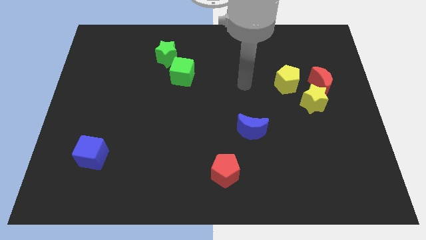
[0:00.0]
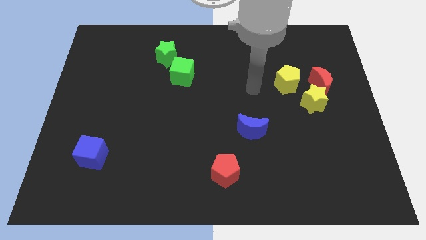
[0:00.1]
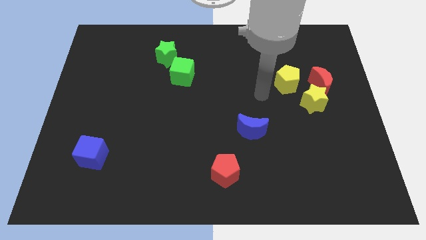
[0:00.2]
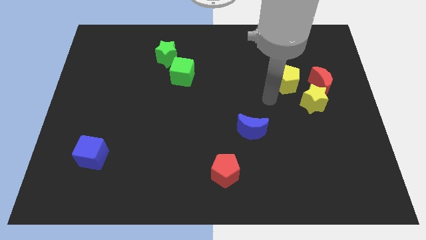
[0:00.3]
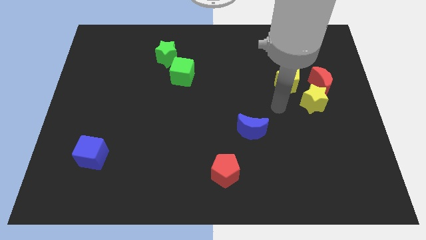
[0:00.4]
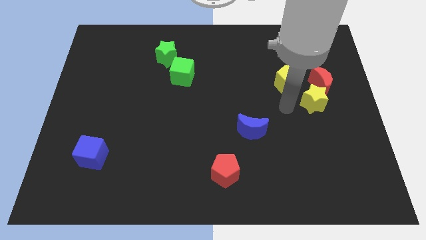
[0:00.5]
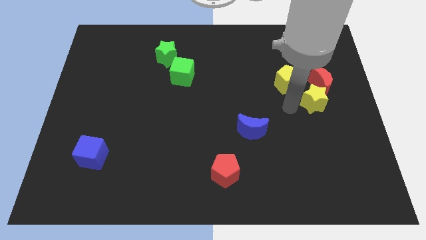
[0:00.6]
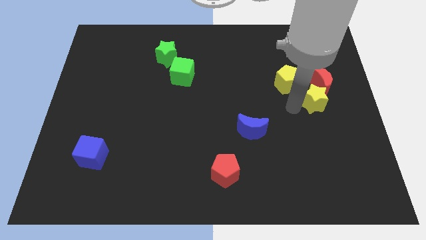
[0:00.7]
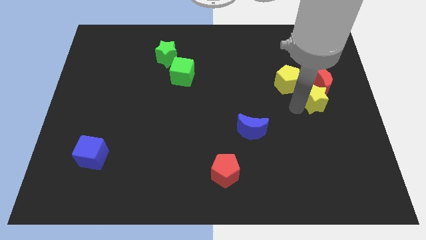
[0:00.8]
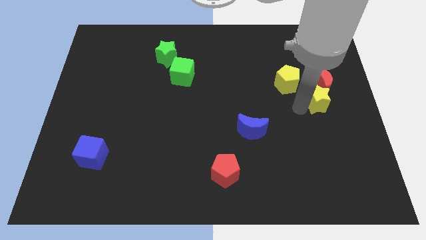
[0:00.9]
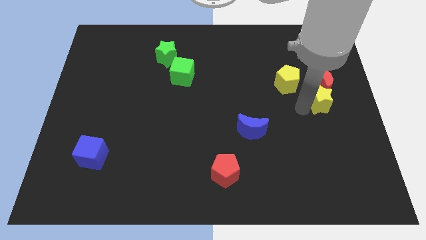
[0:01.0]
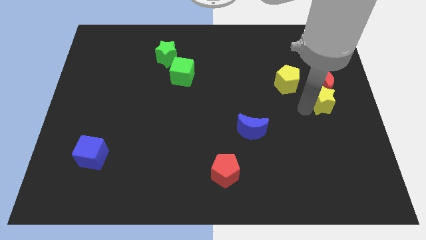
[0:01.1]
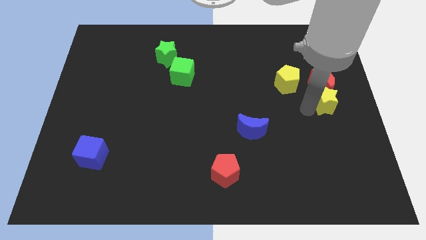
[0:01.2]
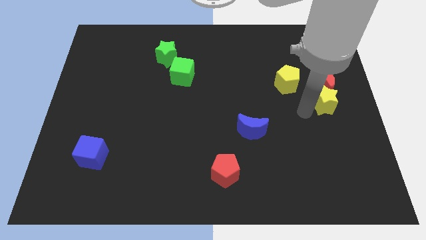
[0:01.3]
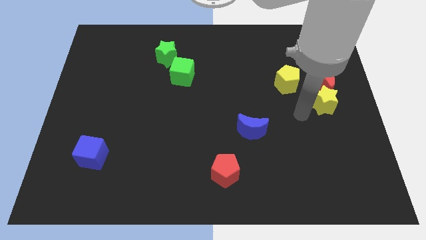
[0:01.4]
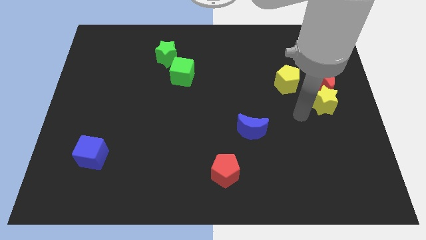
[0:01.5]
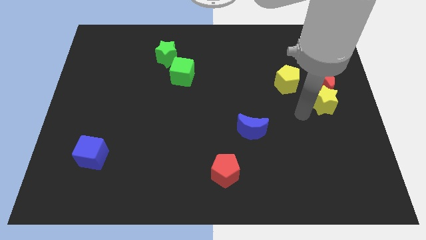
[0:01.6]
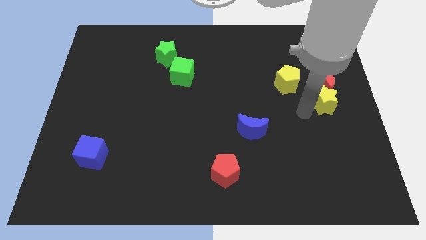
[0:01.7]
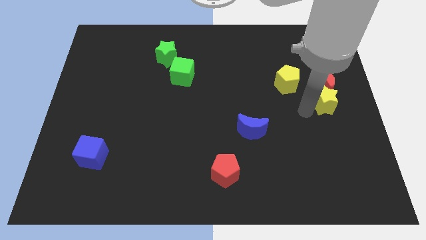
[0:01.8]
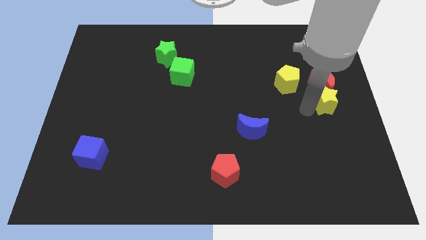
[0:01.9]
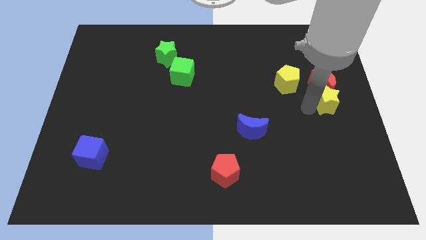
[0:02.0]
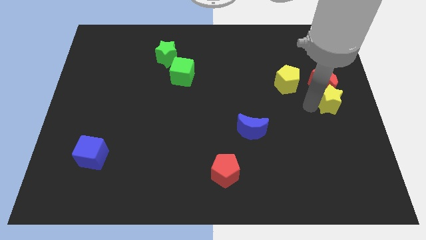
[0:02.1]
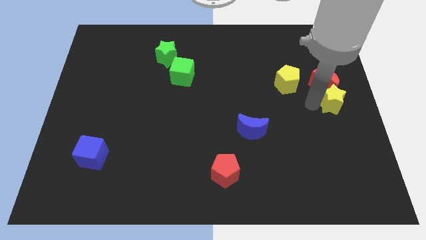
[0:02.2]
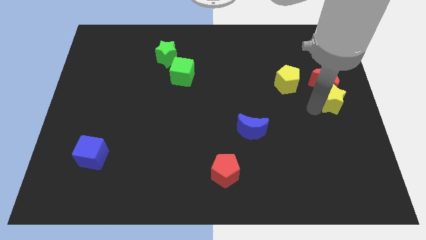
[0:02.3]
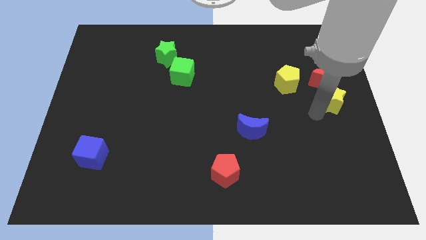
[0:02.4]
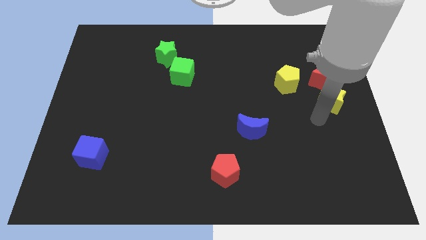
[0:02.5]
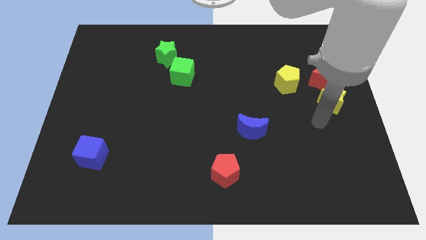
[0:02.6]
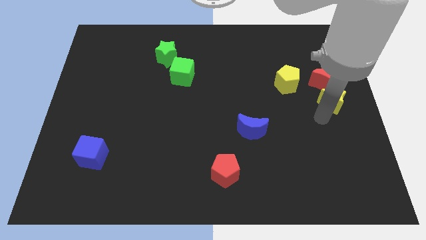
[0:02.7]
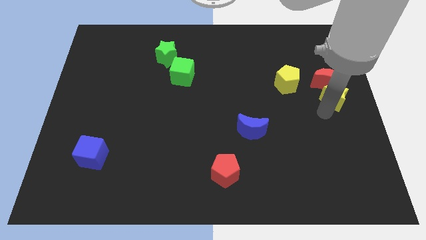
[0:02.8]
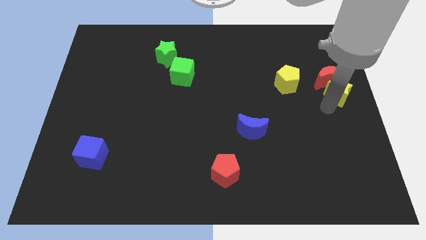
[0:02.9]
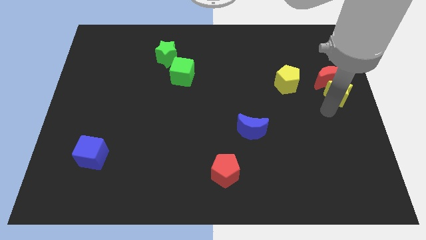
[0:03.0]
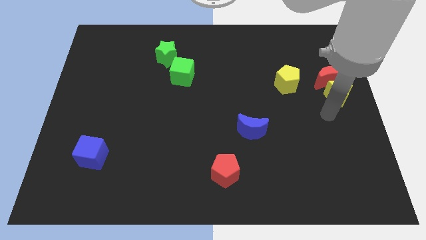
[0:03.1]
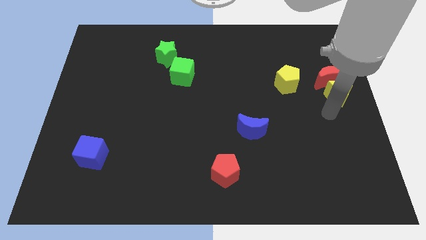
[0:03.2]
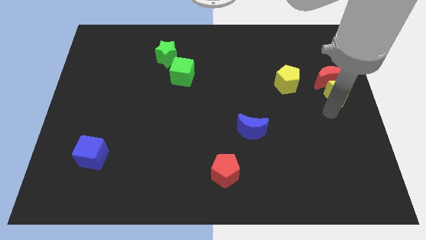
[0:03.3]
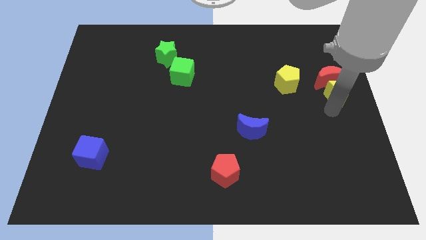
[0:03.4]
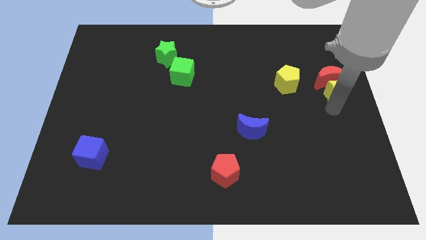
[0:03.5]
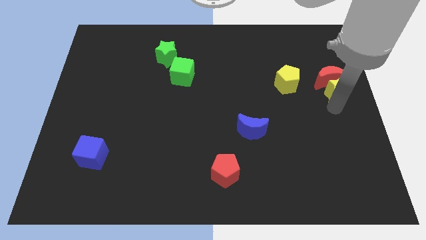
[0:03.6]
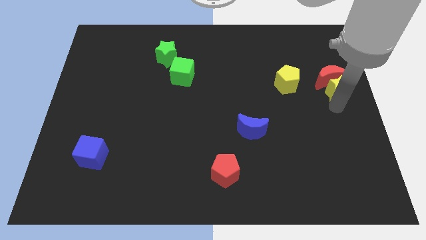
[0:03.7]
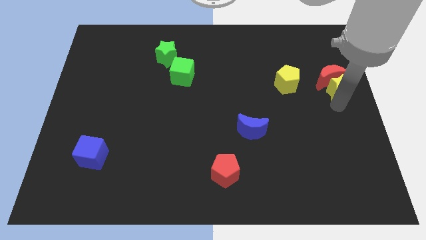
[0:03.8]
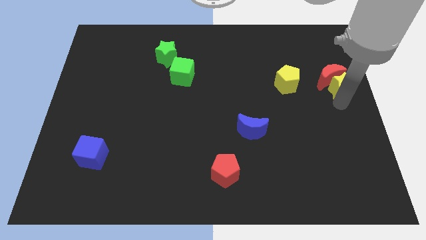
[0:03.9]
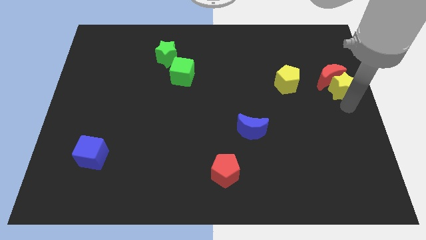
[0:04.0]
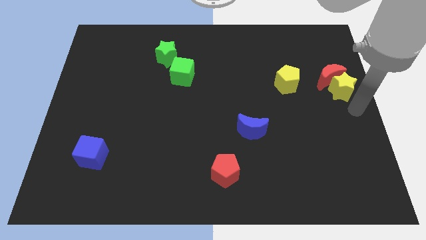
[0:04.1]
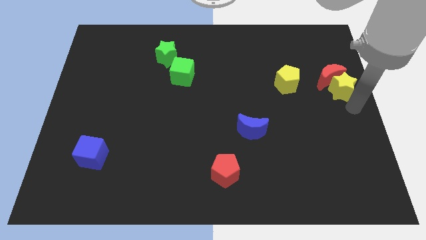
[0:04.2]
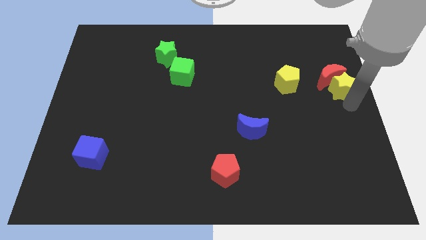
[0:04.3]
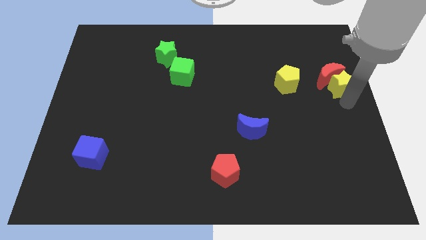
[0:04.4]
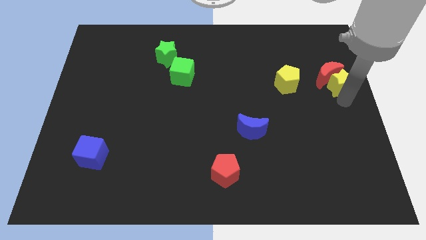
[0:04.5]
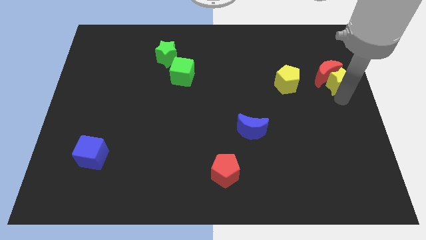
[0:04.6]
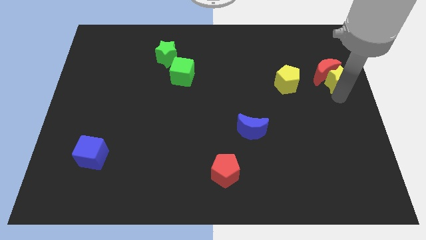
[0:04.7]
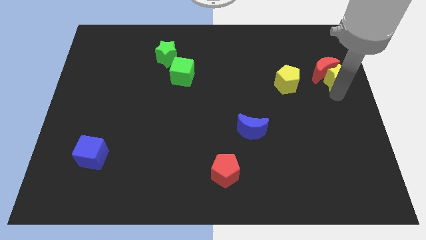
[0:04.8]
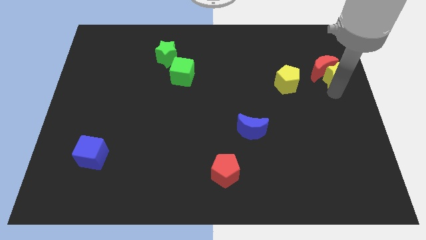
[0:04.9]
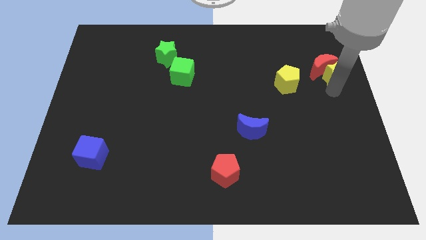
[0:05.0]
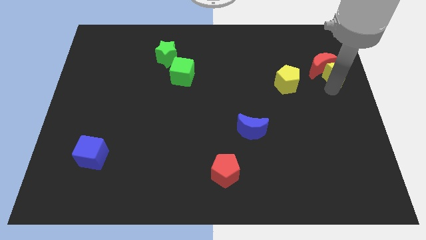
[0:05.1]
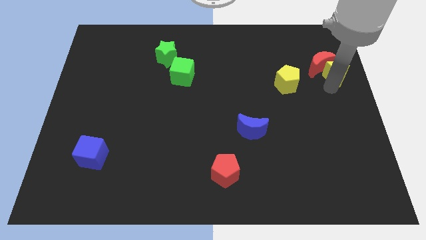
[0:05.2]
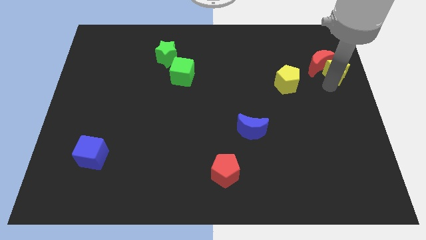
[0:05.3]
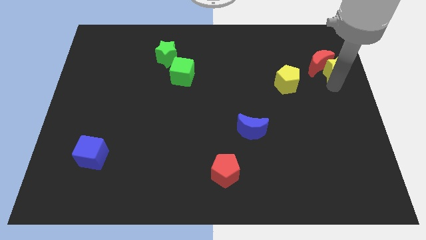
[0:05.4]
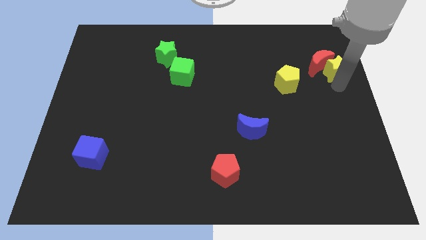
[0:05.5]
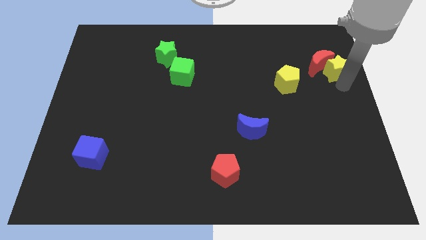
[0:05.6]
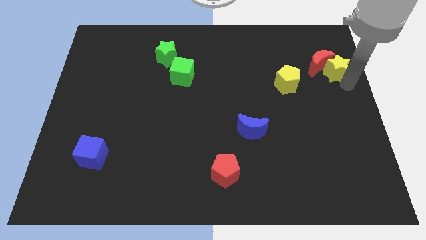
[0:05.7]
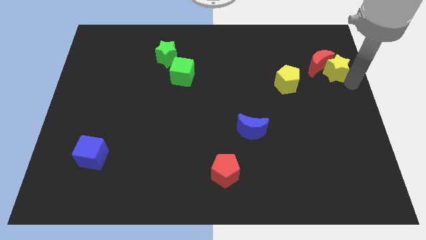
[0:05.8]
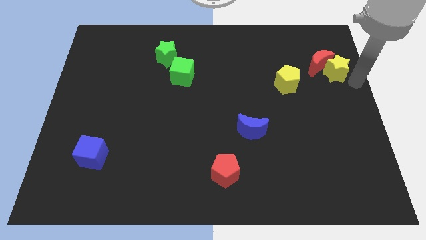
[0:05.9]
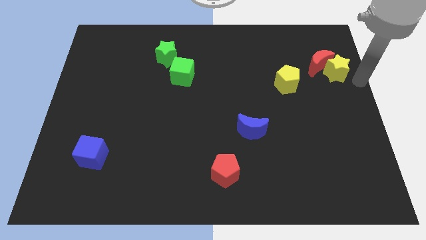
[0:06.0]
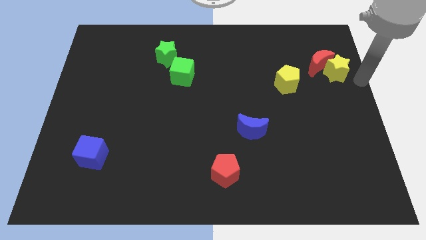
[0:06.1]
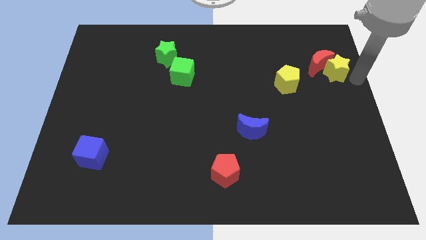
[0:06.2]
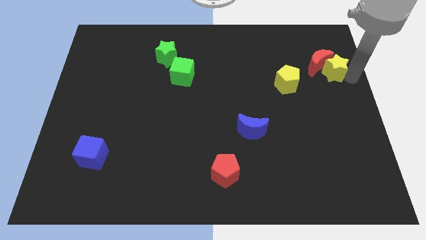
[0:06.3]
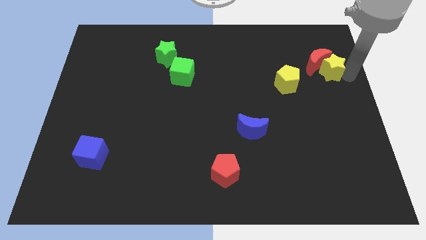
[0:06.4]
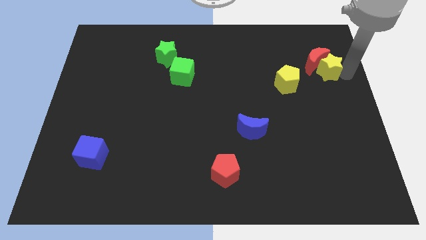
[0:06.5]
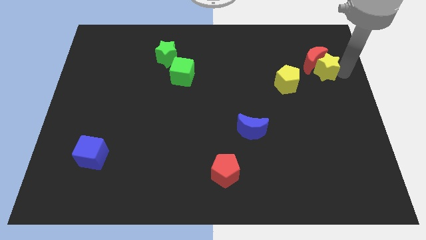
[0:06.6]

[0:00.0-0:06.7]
put the yellow star diagonally up and to the right of the yellow pentagon

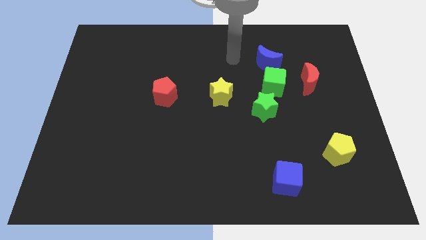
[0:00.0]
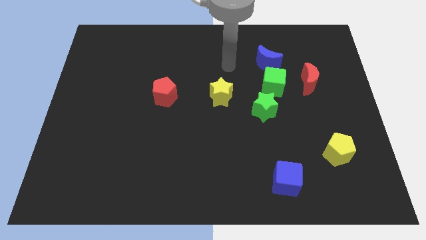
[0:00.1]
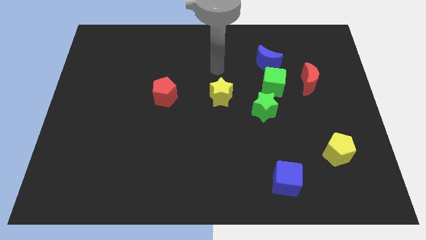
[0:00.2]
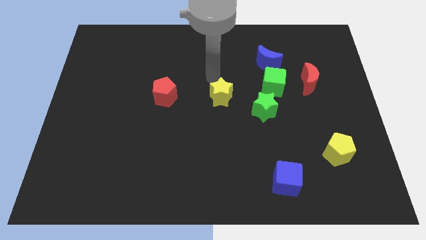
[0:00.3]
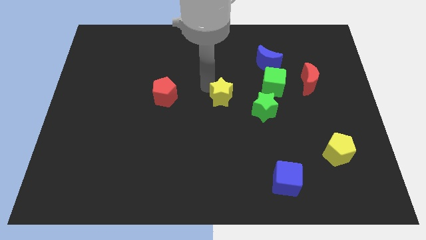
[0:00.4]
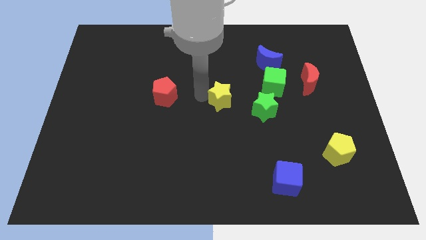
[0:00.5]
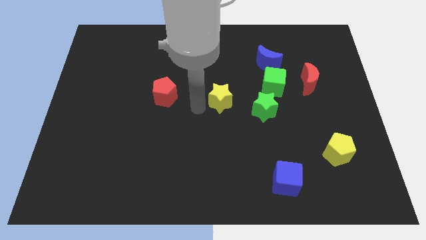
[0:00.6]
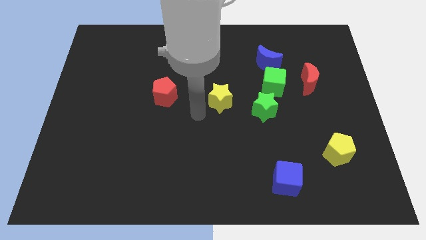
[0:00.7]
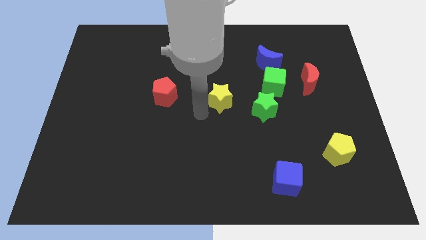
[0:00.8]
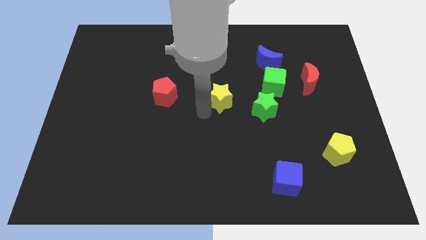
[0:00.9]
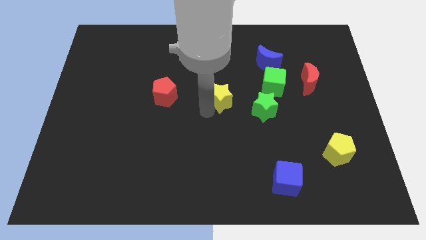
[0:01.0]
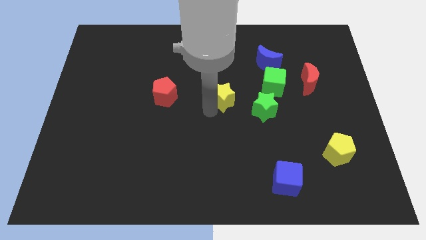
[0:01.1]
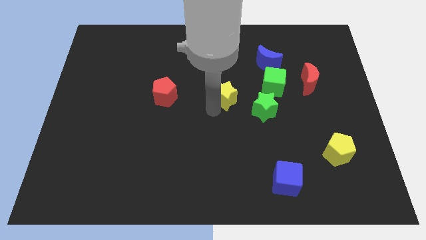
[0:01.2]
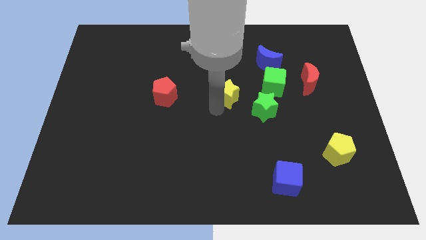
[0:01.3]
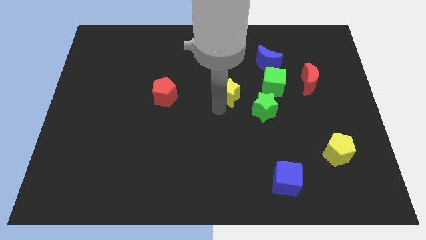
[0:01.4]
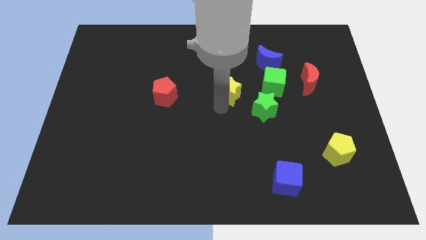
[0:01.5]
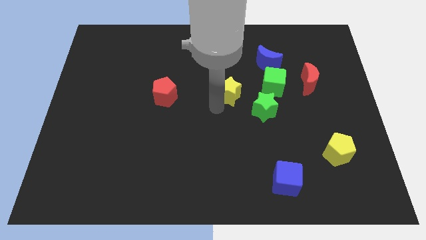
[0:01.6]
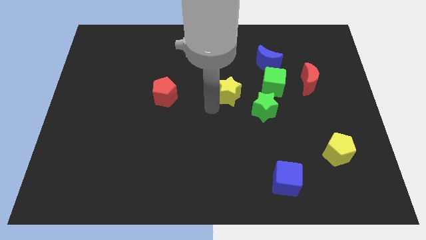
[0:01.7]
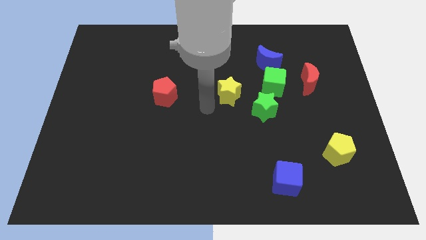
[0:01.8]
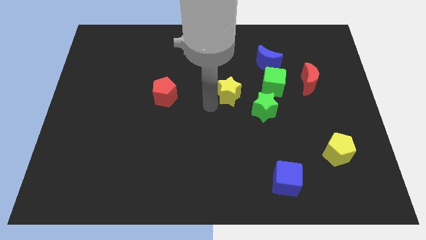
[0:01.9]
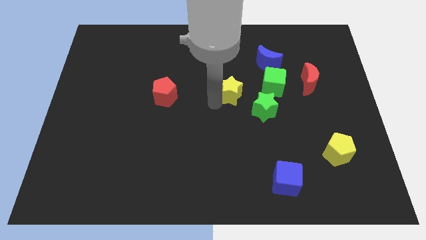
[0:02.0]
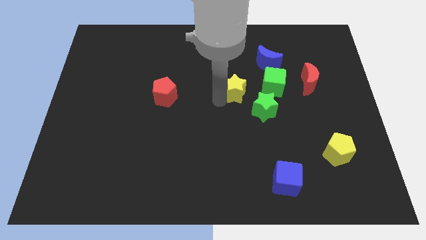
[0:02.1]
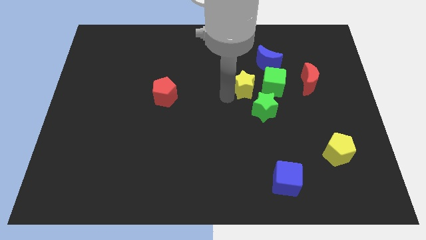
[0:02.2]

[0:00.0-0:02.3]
put the yellow star to the top of the green star
